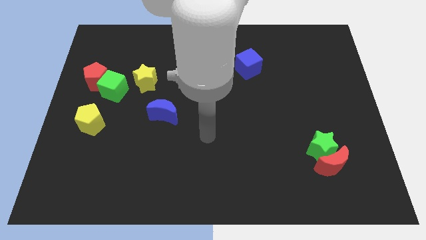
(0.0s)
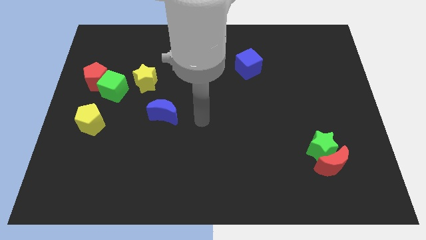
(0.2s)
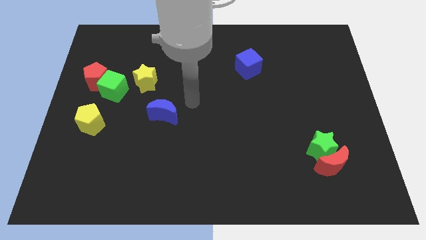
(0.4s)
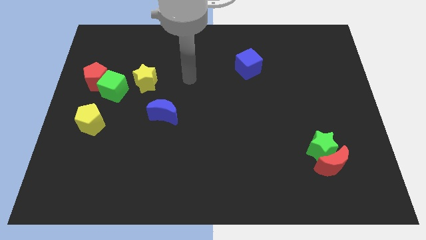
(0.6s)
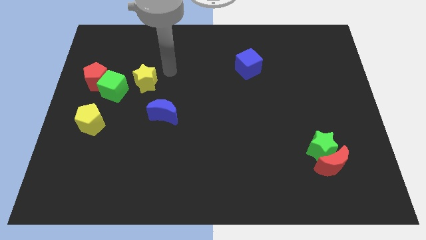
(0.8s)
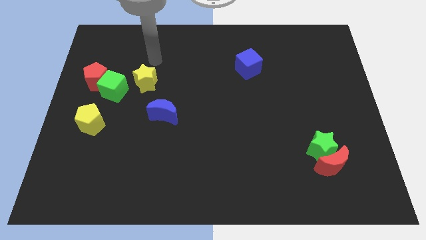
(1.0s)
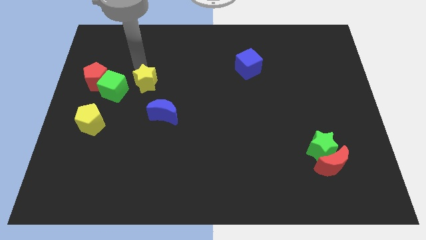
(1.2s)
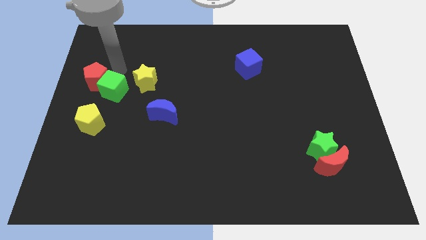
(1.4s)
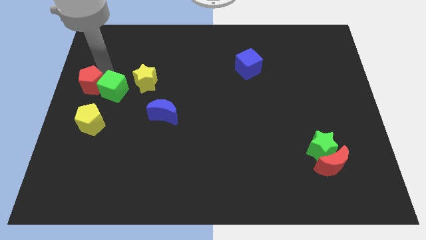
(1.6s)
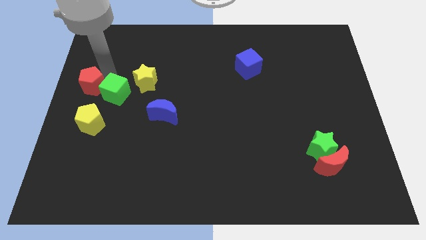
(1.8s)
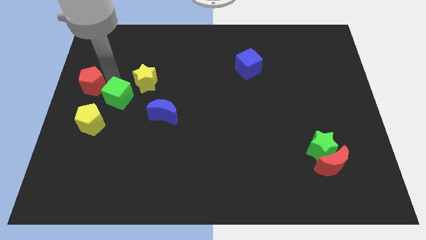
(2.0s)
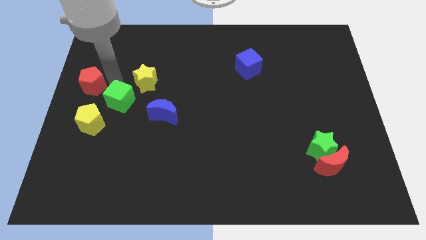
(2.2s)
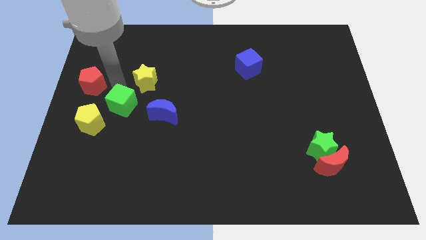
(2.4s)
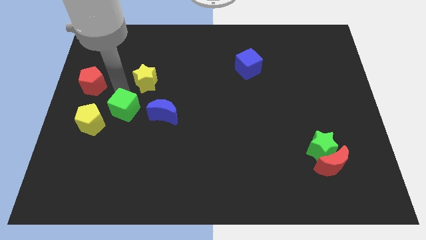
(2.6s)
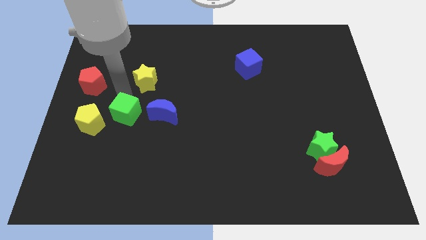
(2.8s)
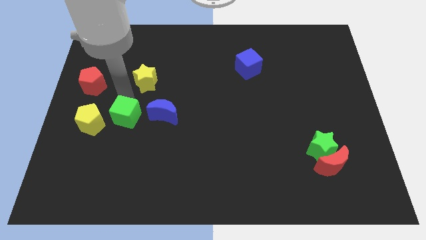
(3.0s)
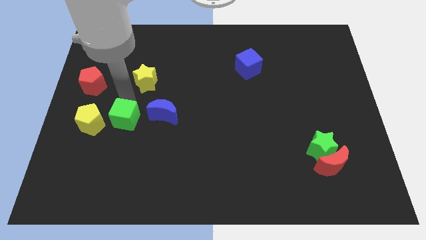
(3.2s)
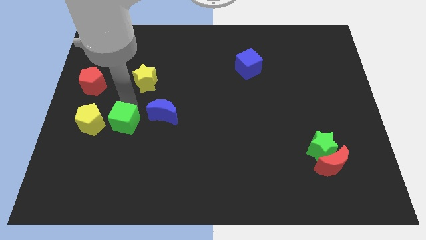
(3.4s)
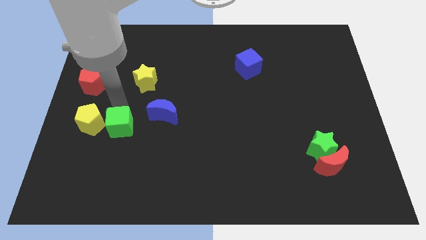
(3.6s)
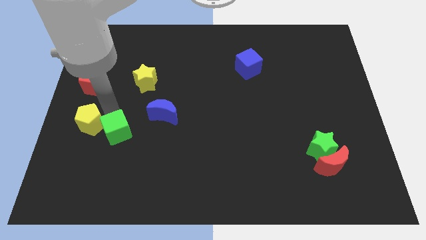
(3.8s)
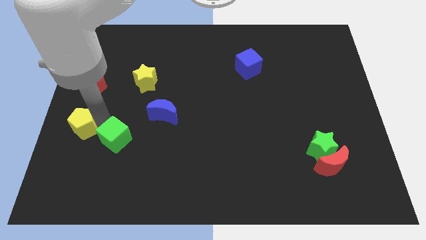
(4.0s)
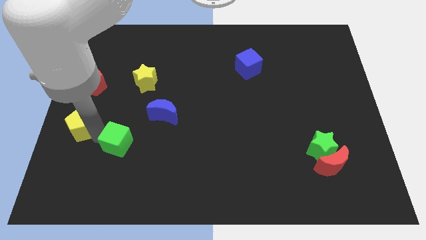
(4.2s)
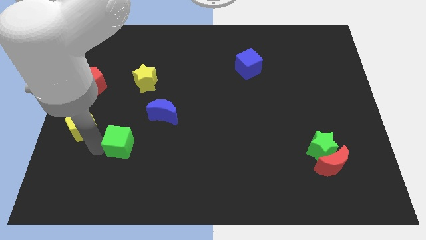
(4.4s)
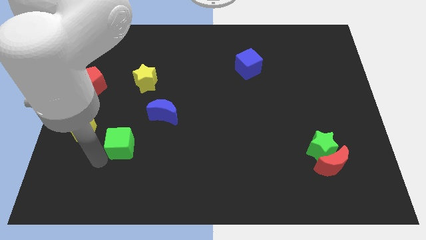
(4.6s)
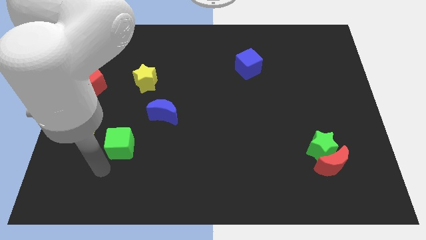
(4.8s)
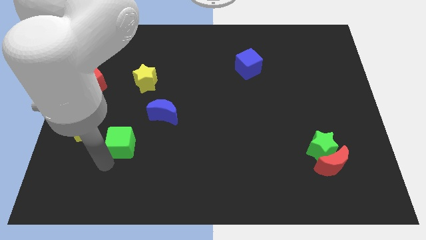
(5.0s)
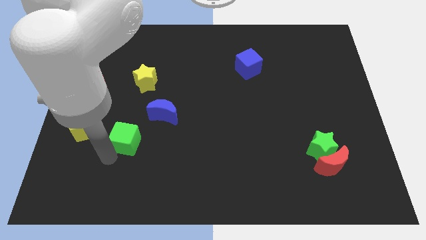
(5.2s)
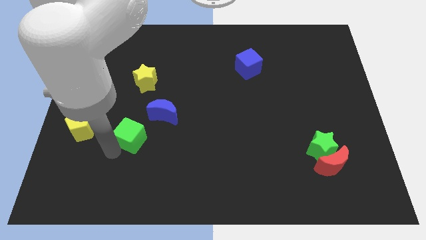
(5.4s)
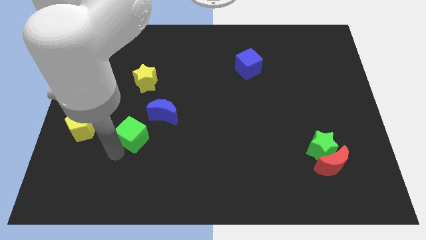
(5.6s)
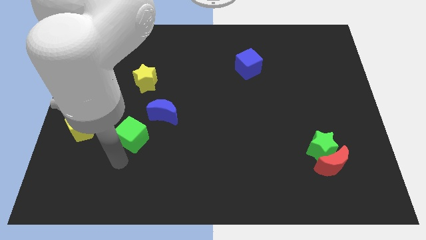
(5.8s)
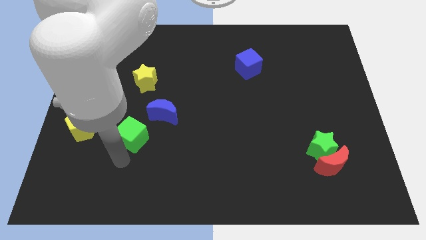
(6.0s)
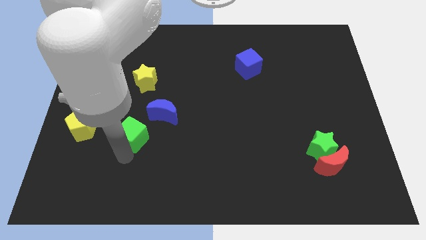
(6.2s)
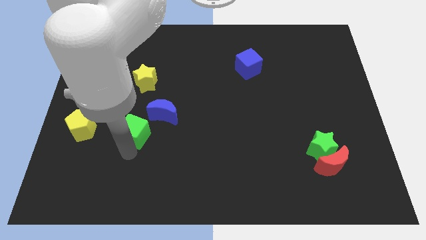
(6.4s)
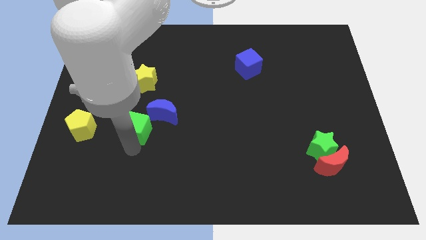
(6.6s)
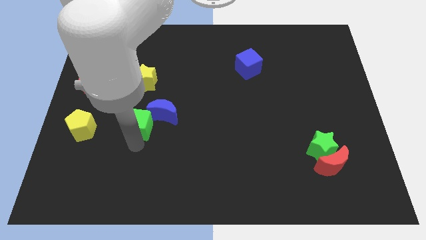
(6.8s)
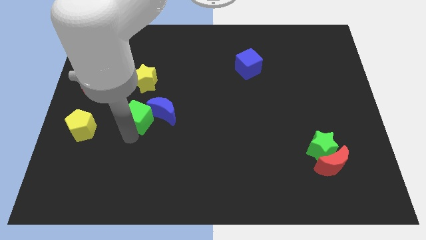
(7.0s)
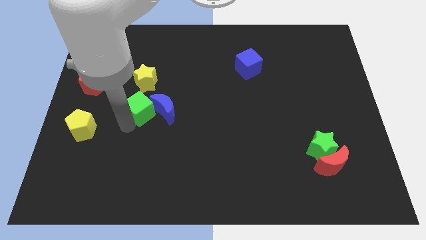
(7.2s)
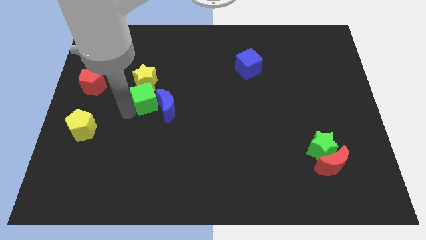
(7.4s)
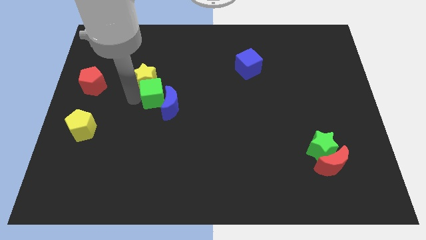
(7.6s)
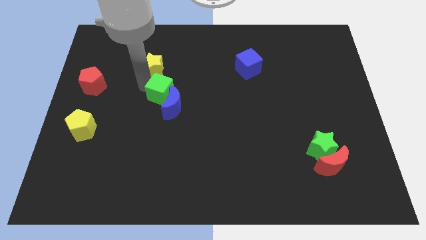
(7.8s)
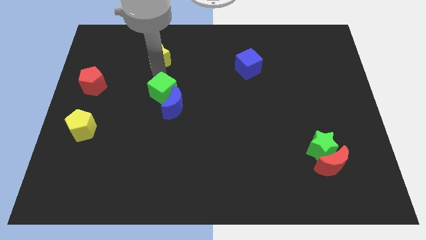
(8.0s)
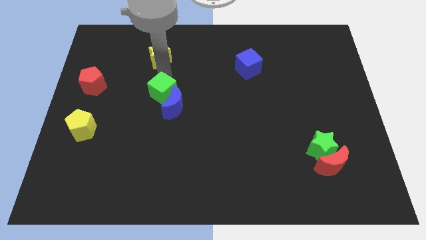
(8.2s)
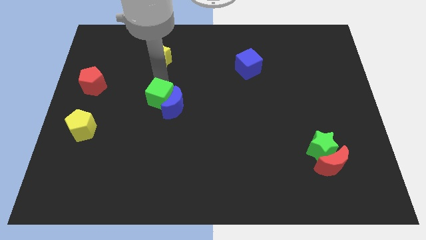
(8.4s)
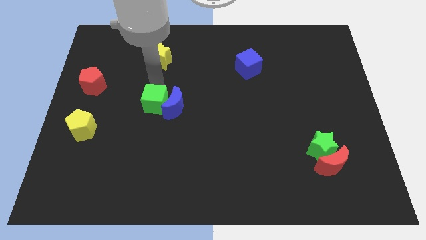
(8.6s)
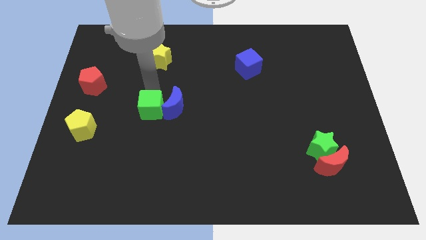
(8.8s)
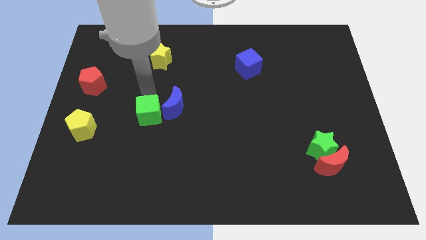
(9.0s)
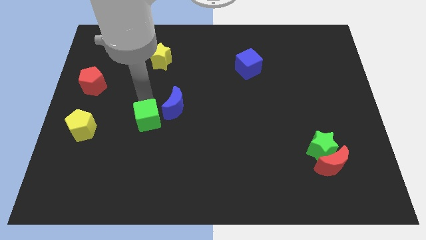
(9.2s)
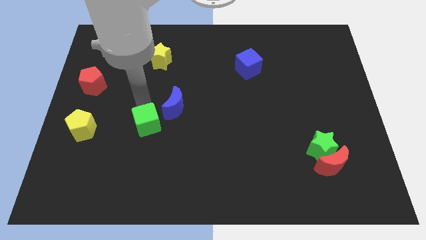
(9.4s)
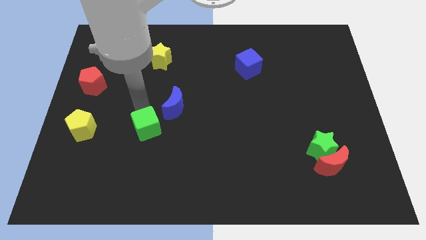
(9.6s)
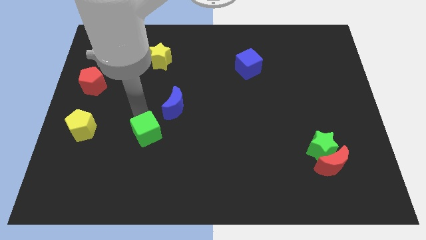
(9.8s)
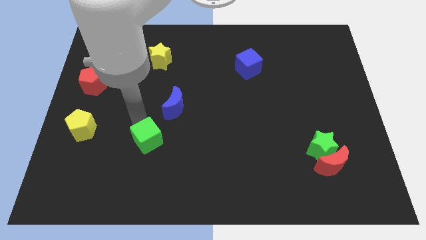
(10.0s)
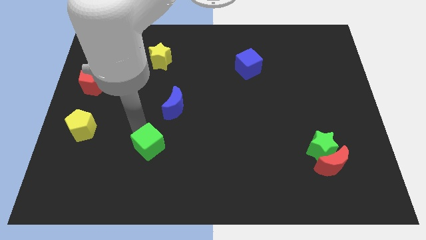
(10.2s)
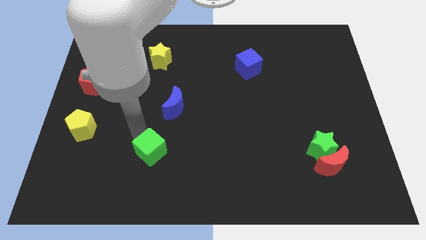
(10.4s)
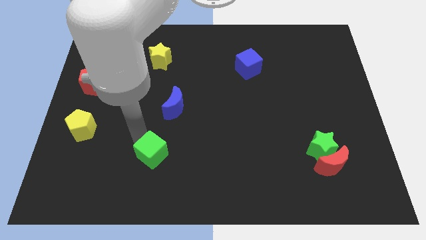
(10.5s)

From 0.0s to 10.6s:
move the green cube down and right diagonally

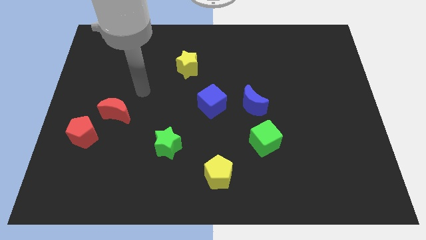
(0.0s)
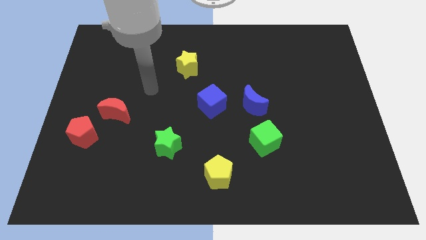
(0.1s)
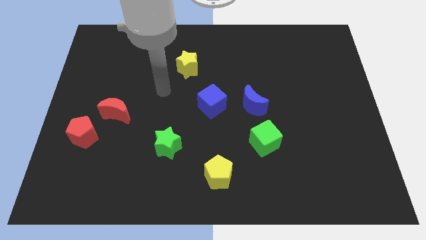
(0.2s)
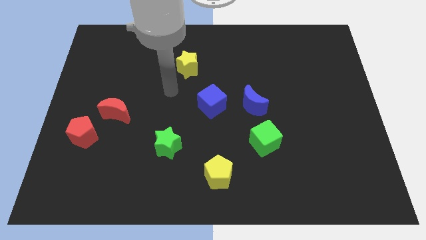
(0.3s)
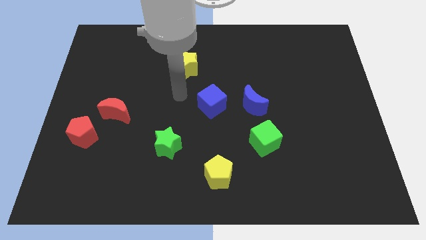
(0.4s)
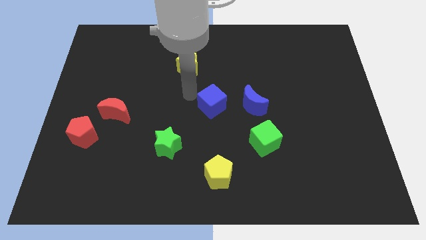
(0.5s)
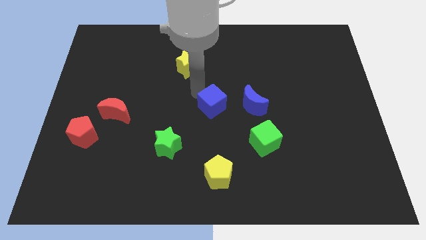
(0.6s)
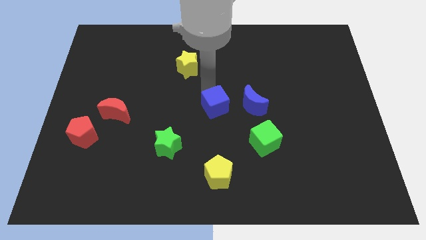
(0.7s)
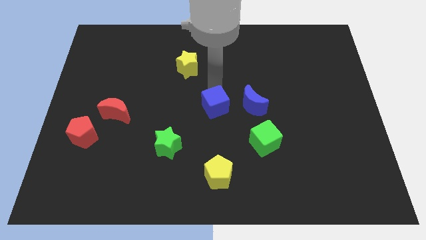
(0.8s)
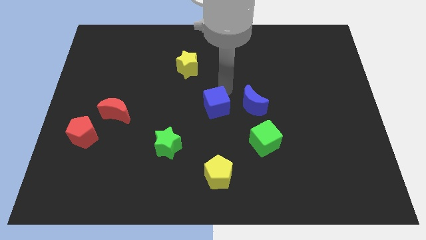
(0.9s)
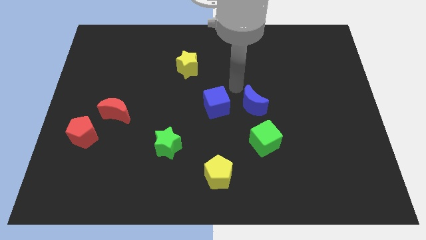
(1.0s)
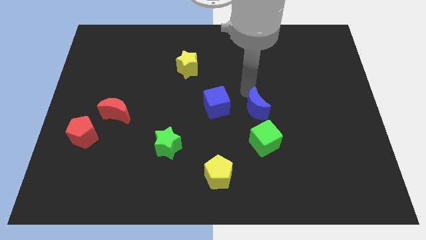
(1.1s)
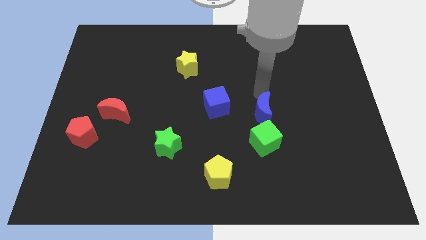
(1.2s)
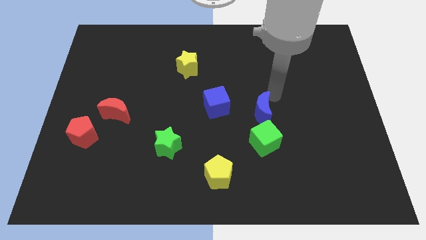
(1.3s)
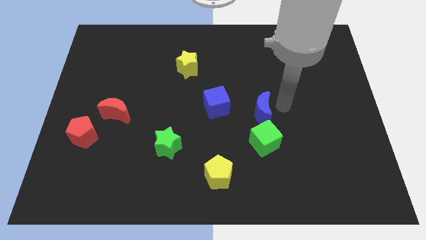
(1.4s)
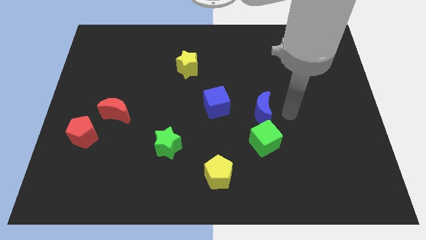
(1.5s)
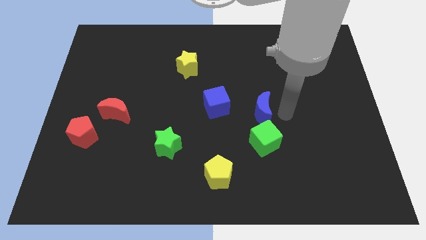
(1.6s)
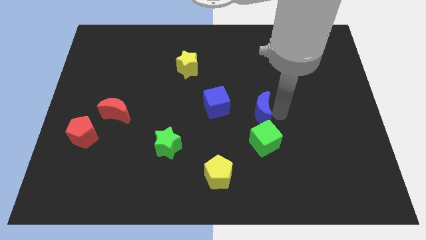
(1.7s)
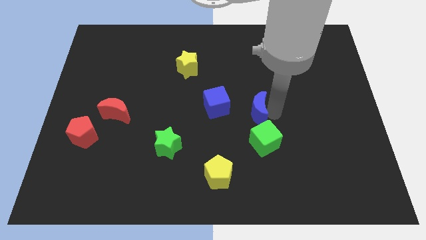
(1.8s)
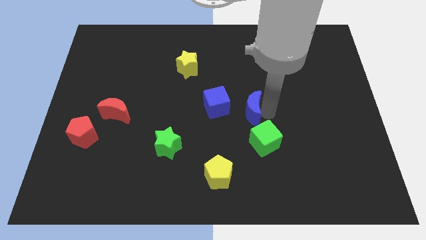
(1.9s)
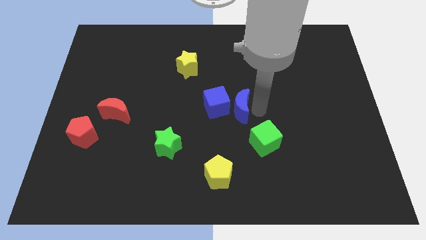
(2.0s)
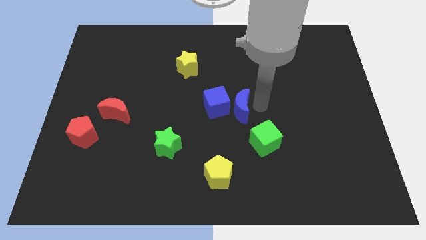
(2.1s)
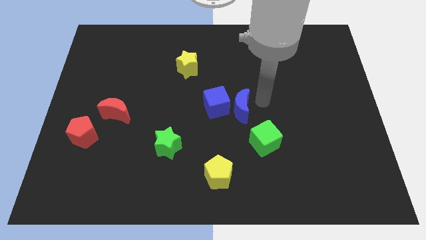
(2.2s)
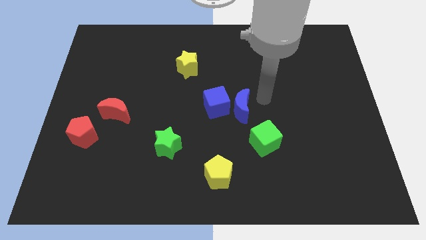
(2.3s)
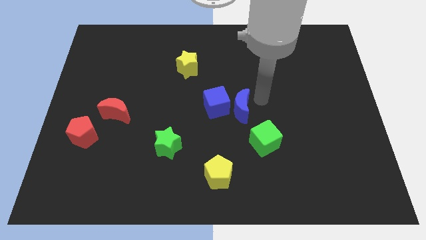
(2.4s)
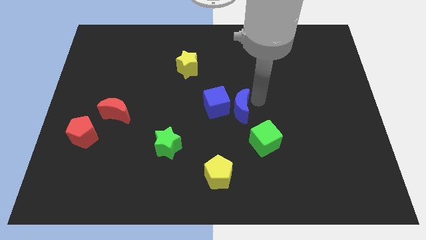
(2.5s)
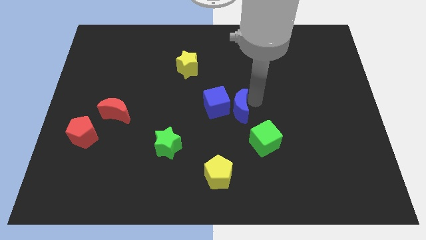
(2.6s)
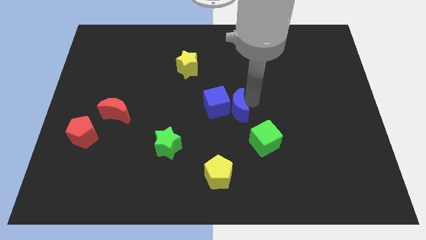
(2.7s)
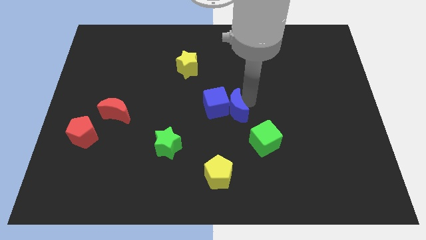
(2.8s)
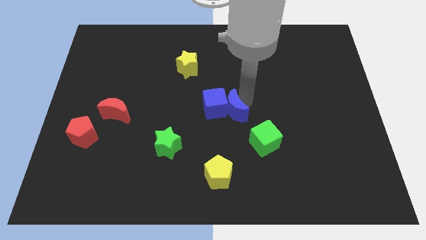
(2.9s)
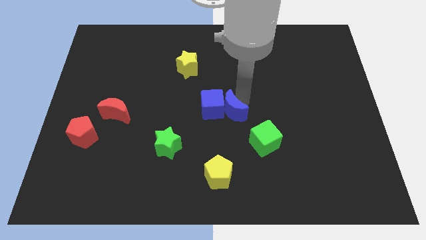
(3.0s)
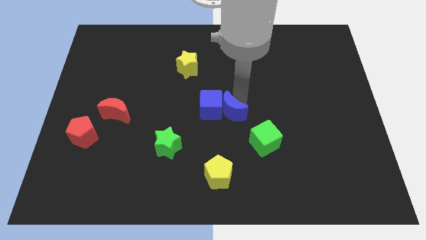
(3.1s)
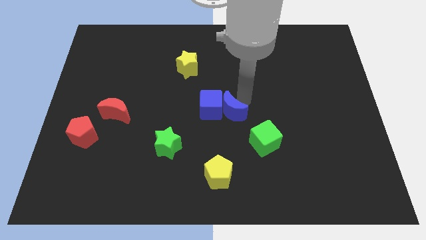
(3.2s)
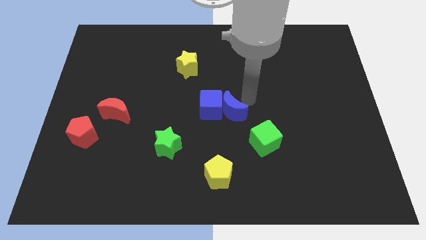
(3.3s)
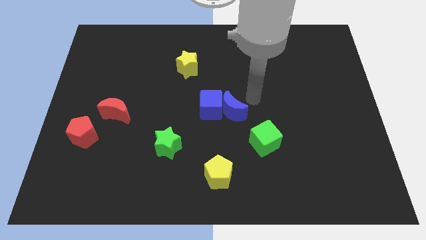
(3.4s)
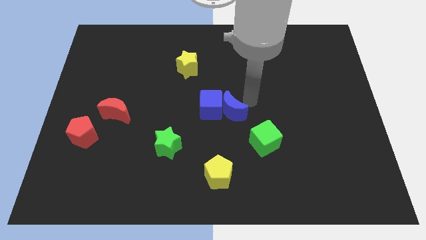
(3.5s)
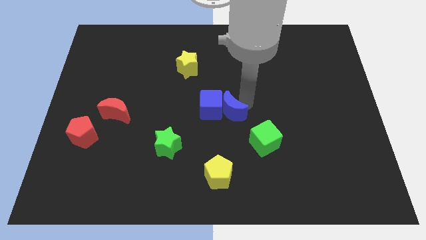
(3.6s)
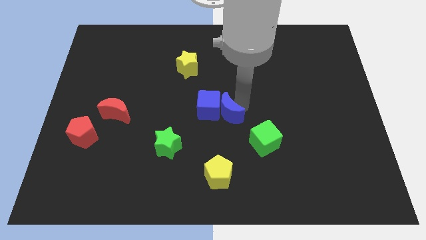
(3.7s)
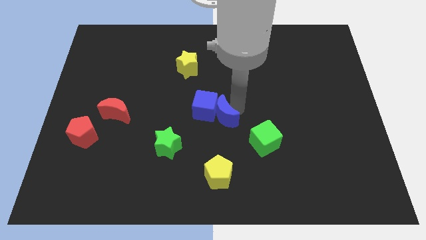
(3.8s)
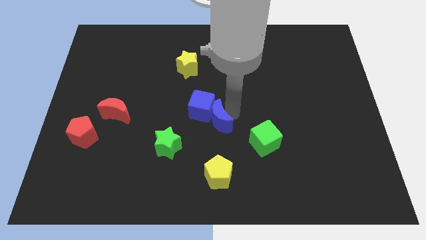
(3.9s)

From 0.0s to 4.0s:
move the blue moon left a bit
